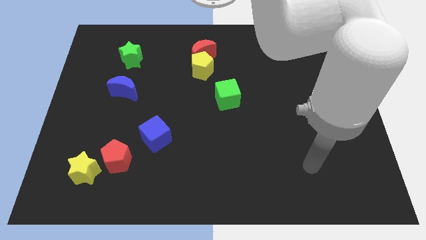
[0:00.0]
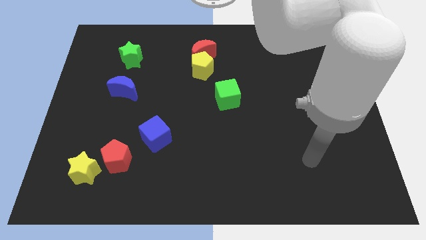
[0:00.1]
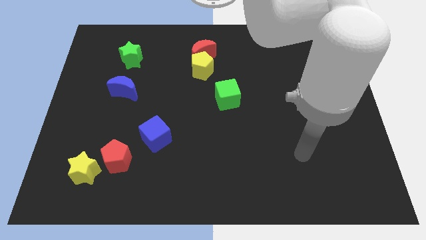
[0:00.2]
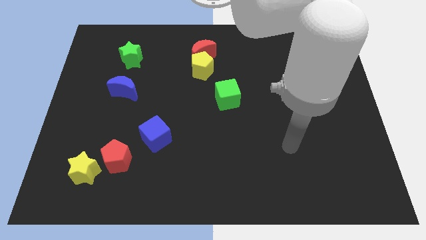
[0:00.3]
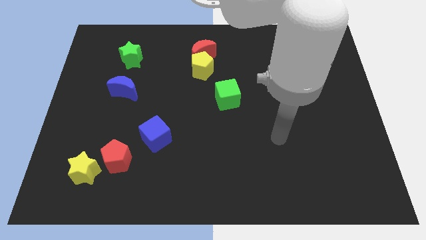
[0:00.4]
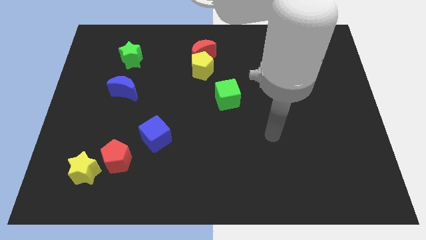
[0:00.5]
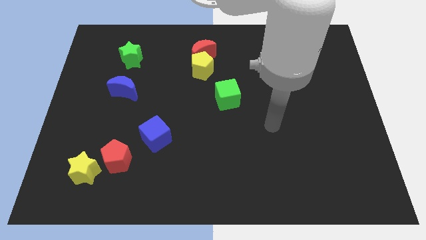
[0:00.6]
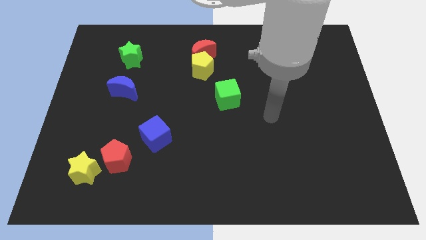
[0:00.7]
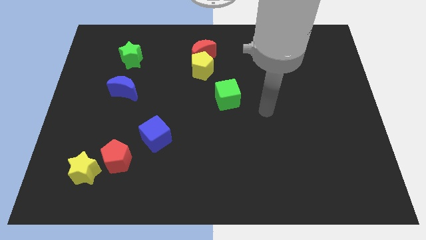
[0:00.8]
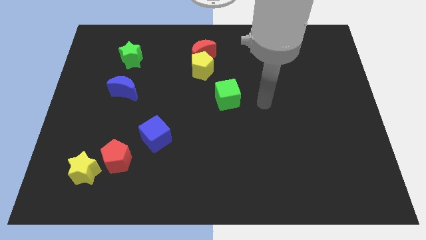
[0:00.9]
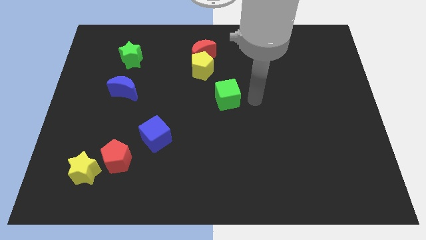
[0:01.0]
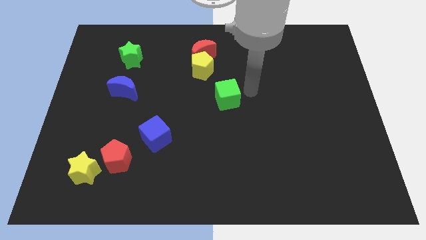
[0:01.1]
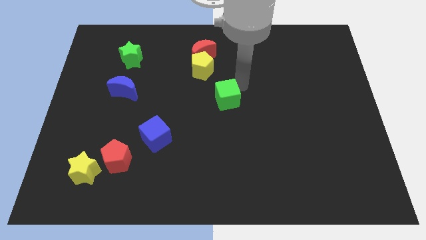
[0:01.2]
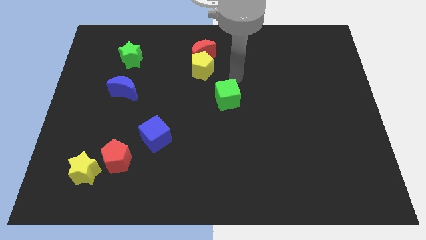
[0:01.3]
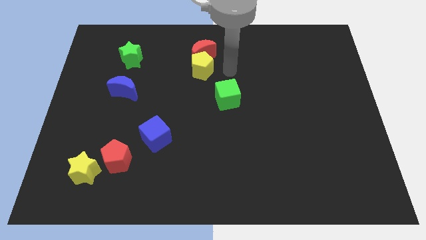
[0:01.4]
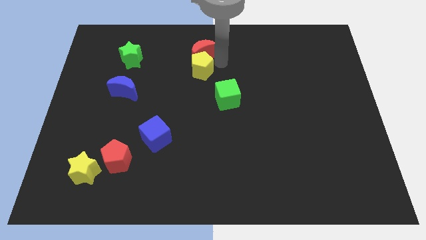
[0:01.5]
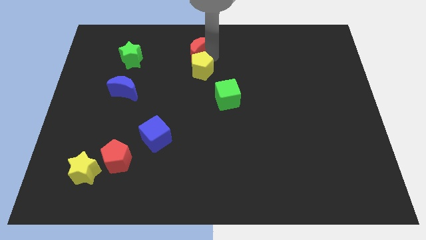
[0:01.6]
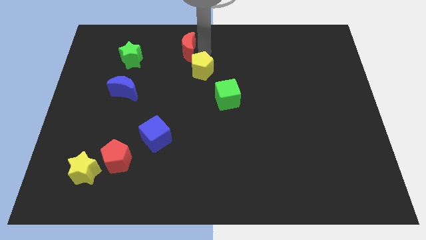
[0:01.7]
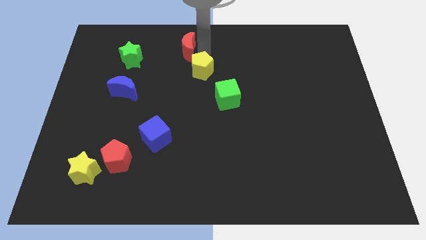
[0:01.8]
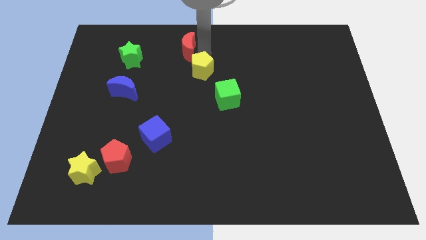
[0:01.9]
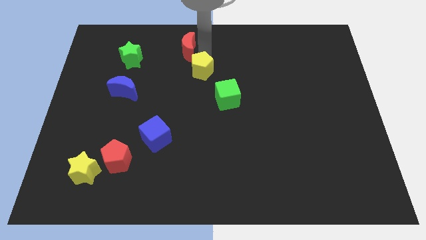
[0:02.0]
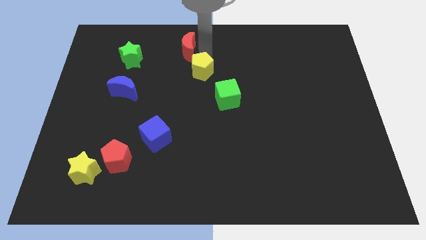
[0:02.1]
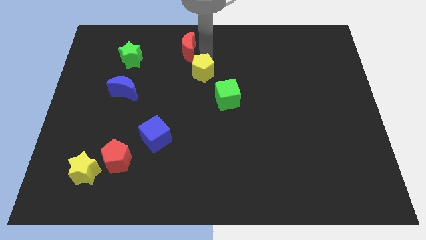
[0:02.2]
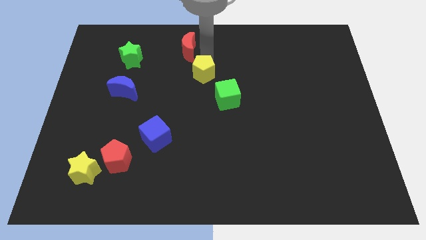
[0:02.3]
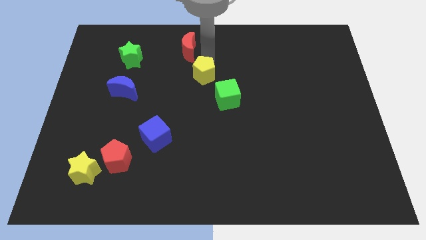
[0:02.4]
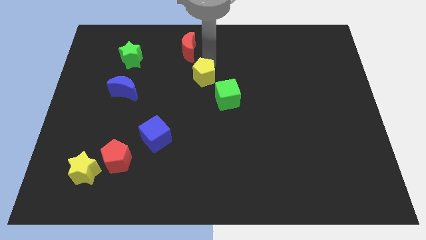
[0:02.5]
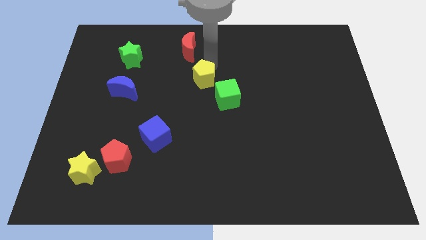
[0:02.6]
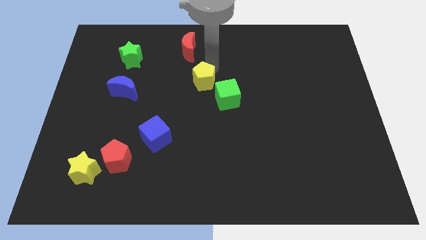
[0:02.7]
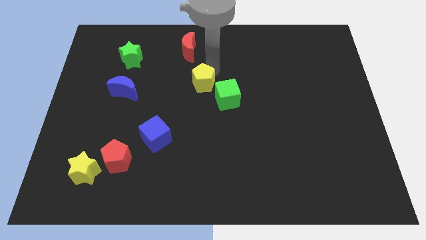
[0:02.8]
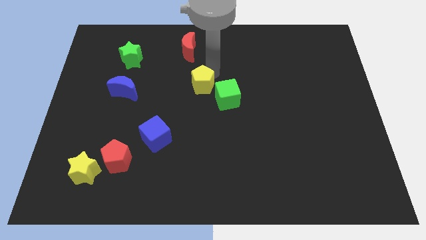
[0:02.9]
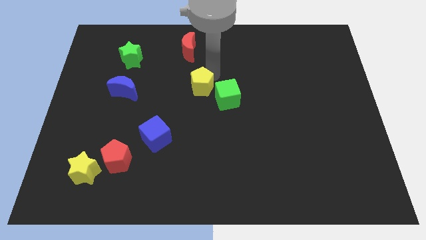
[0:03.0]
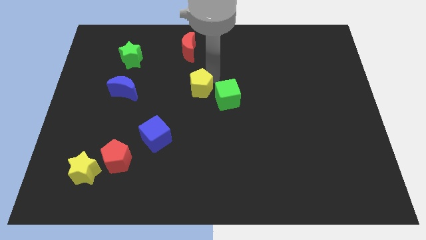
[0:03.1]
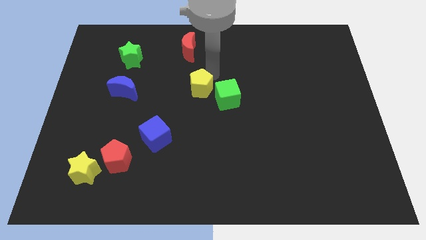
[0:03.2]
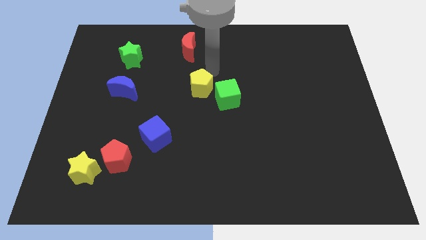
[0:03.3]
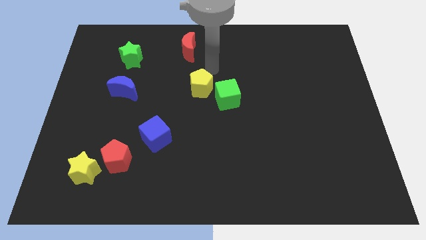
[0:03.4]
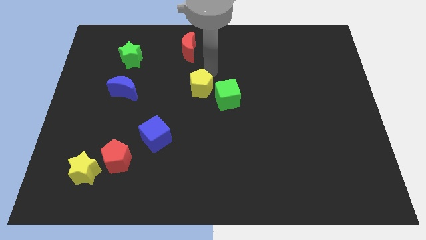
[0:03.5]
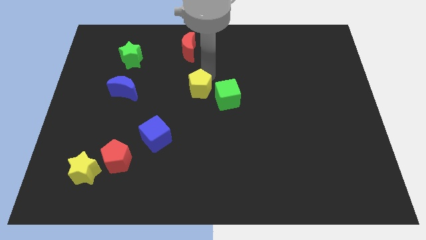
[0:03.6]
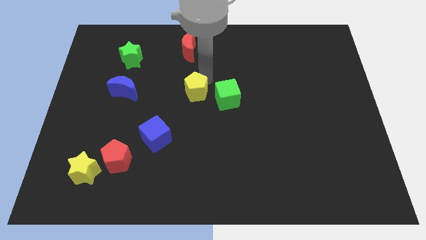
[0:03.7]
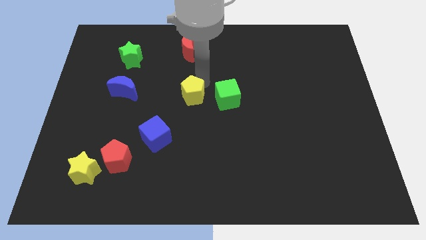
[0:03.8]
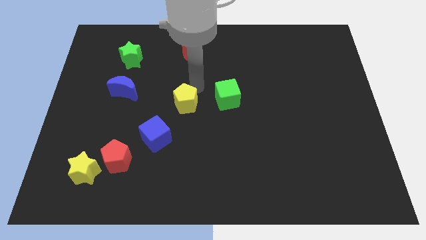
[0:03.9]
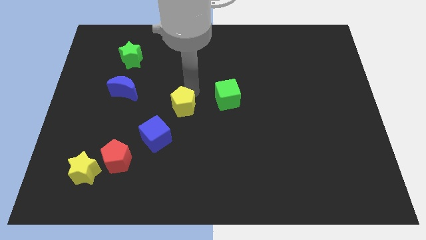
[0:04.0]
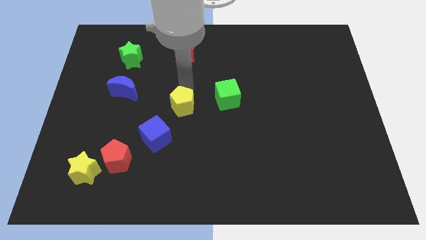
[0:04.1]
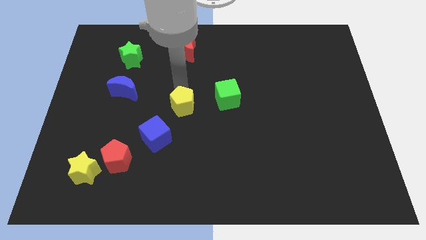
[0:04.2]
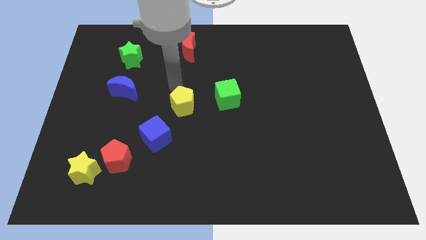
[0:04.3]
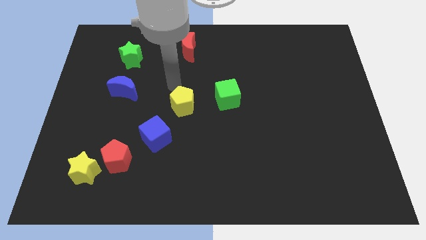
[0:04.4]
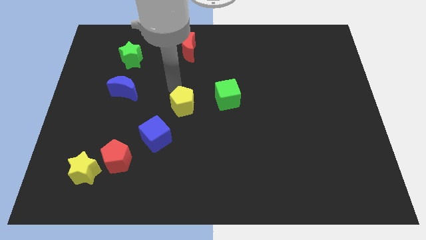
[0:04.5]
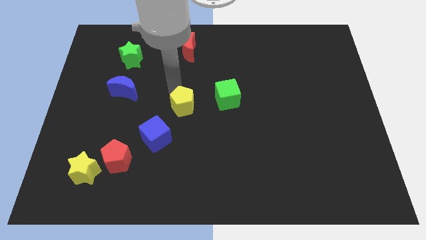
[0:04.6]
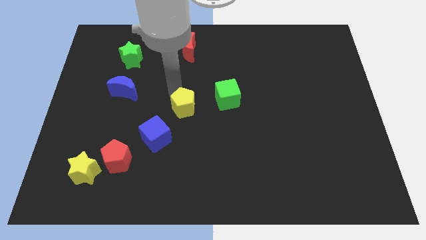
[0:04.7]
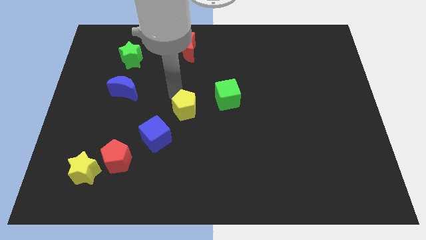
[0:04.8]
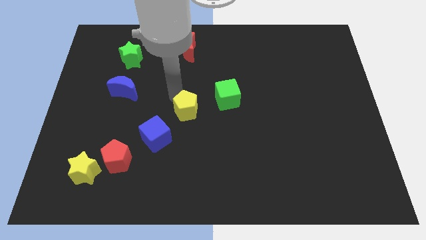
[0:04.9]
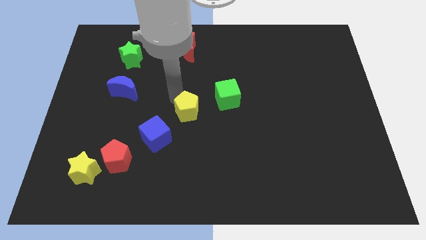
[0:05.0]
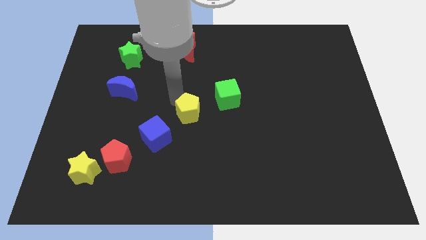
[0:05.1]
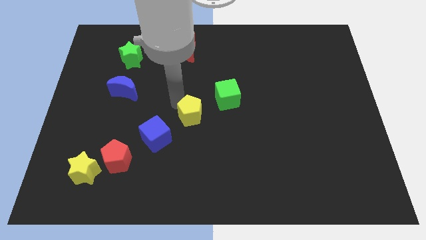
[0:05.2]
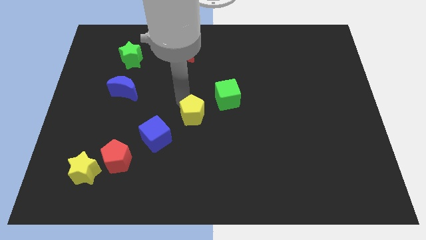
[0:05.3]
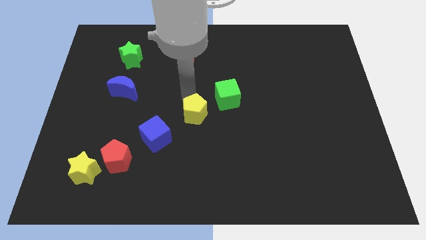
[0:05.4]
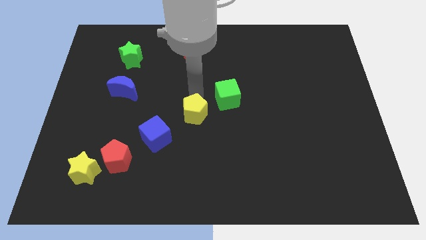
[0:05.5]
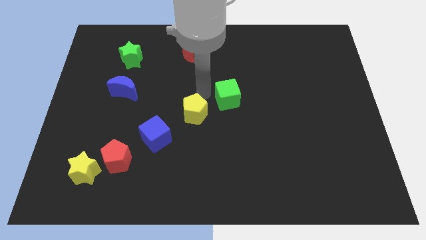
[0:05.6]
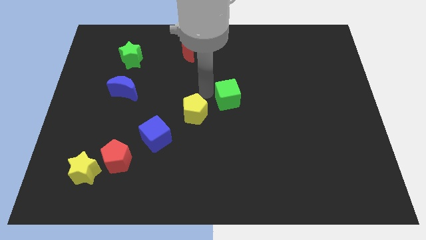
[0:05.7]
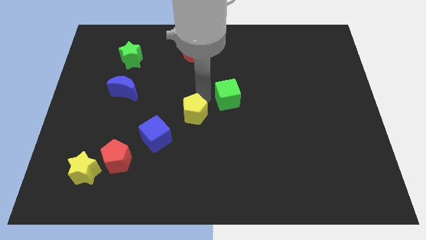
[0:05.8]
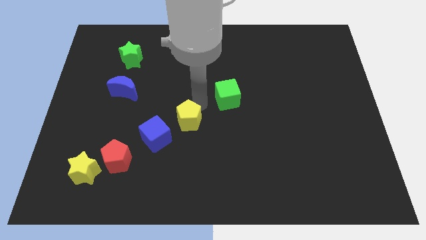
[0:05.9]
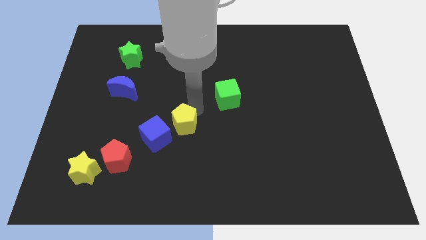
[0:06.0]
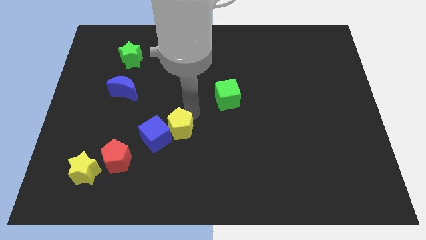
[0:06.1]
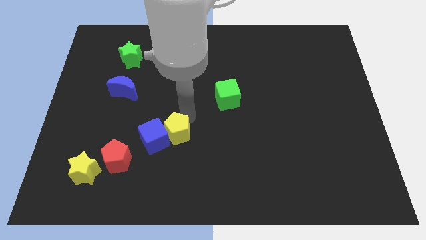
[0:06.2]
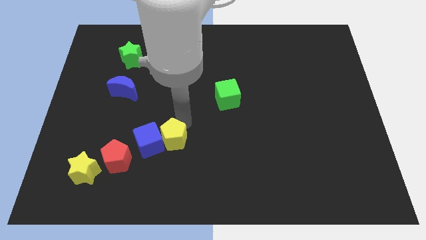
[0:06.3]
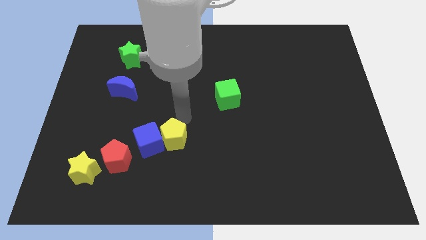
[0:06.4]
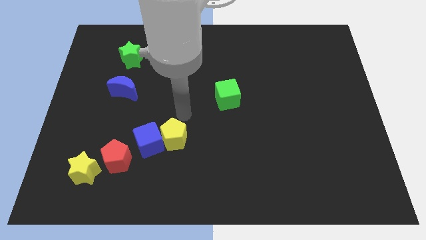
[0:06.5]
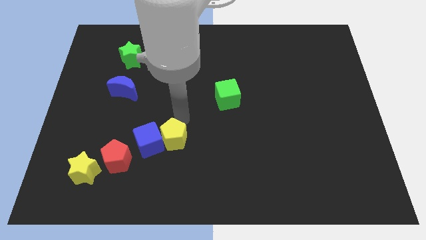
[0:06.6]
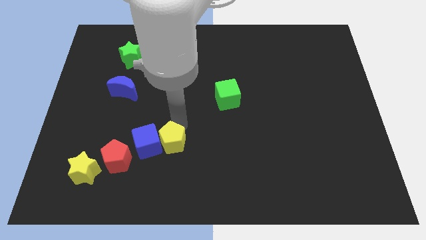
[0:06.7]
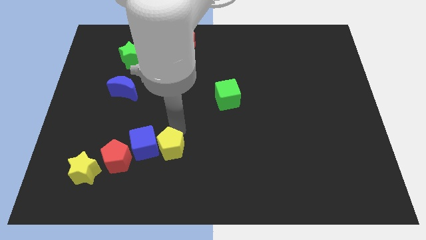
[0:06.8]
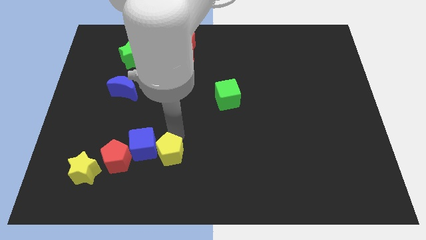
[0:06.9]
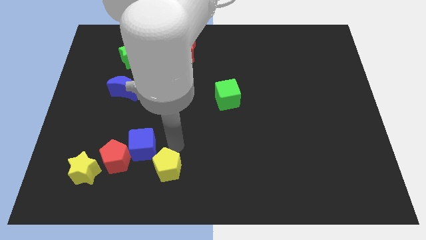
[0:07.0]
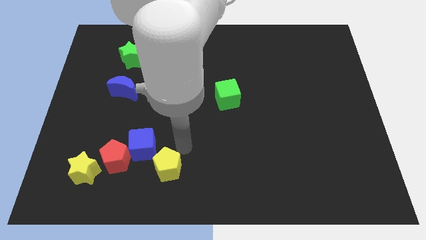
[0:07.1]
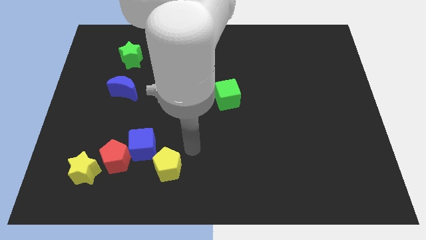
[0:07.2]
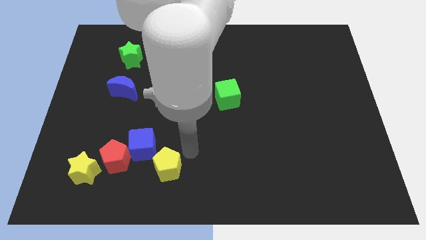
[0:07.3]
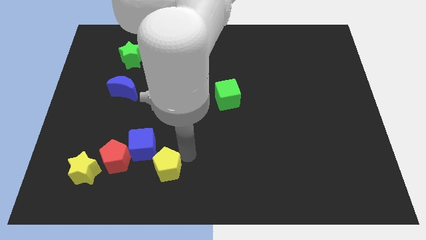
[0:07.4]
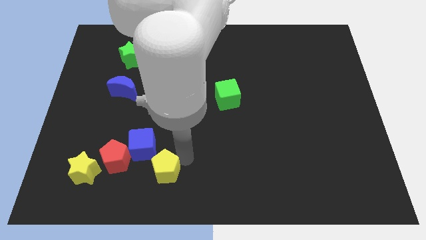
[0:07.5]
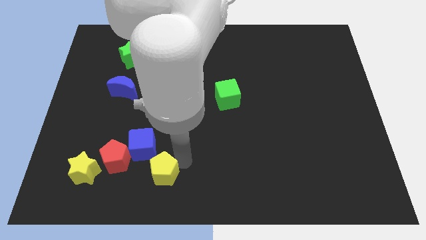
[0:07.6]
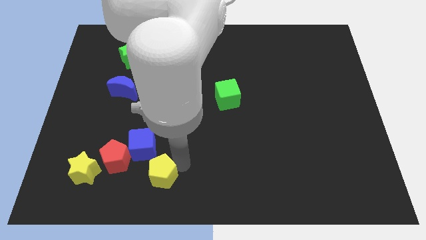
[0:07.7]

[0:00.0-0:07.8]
move the yellow pentagon to the bottom side of the blue cube
